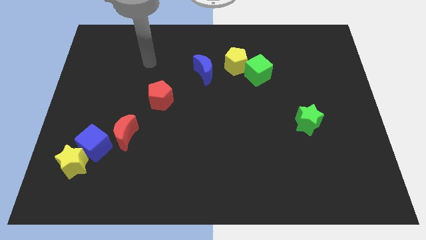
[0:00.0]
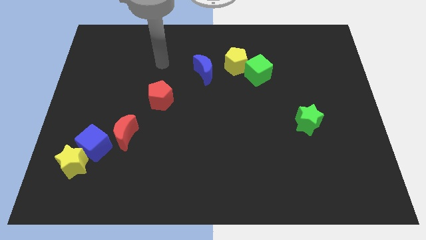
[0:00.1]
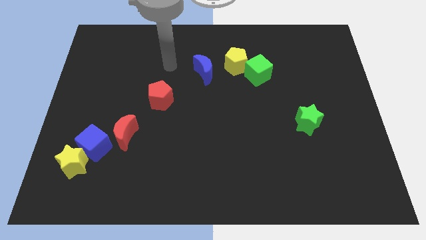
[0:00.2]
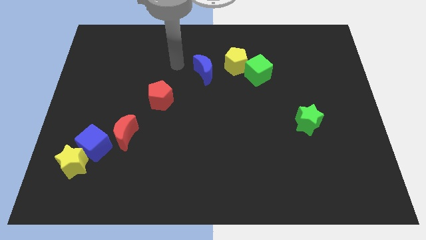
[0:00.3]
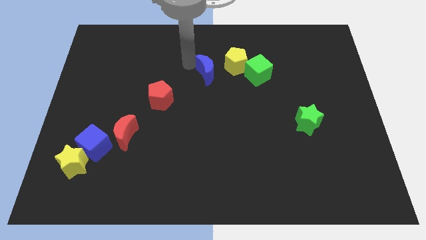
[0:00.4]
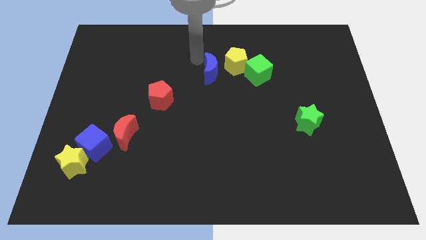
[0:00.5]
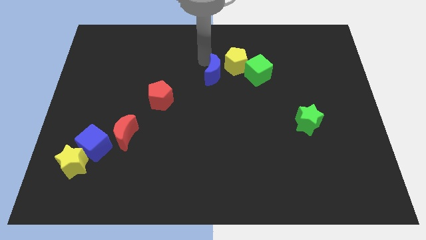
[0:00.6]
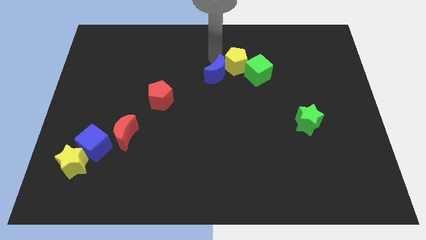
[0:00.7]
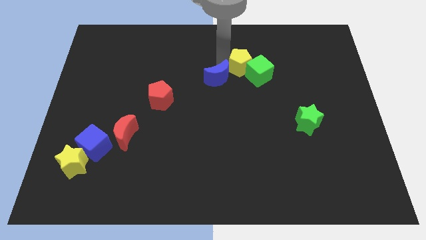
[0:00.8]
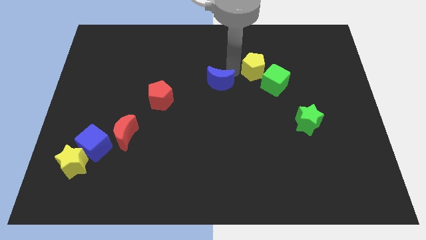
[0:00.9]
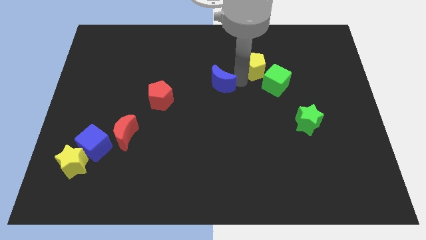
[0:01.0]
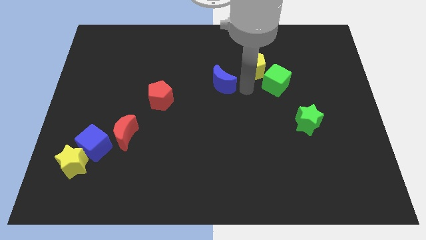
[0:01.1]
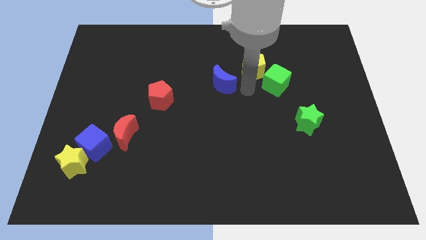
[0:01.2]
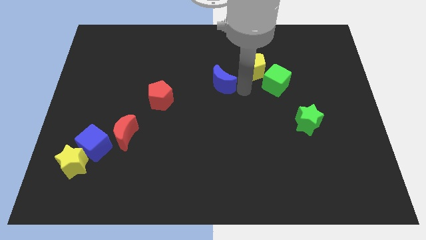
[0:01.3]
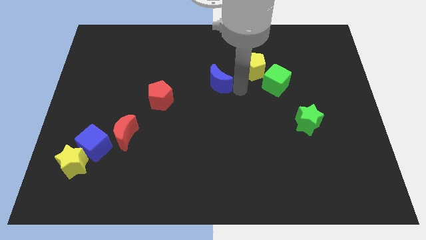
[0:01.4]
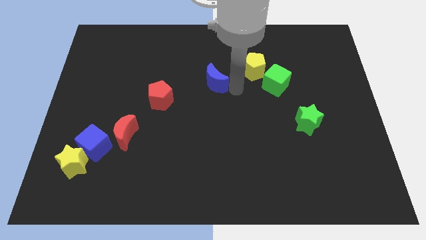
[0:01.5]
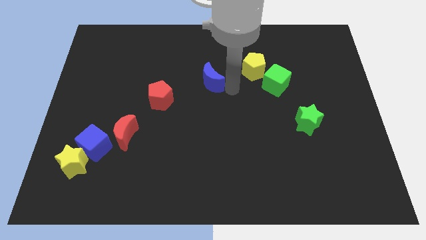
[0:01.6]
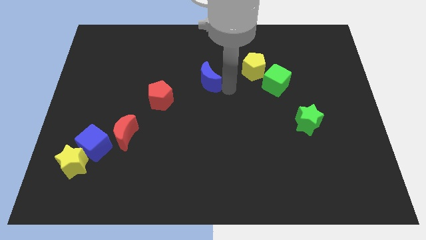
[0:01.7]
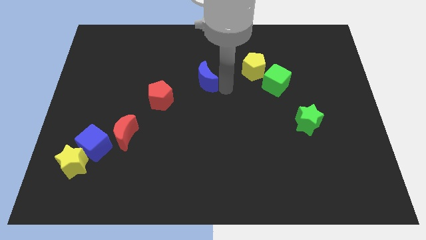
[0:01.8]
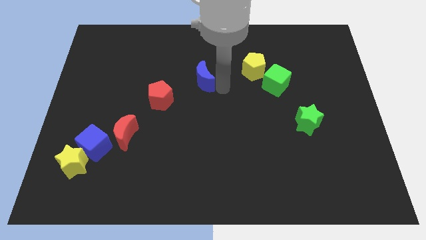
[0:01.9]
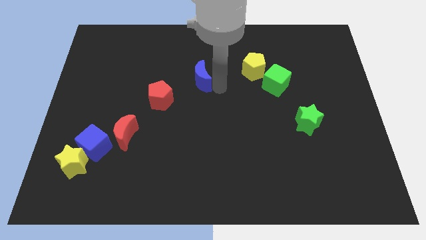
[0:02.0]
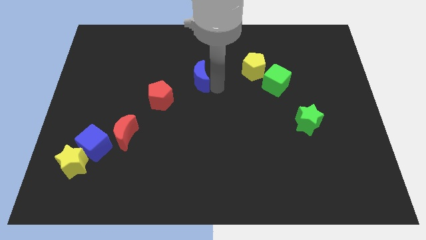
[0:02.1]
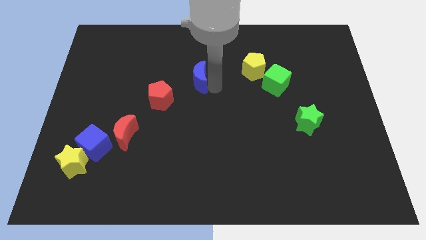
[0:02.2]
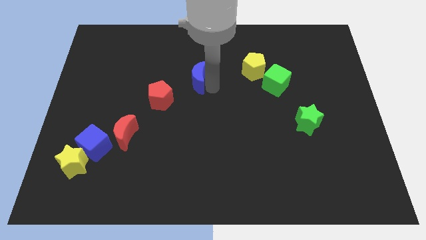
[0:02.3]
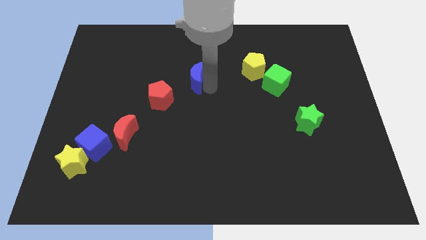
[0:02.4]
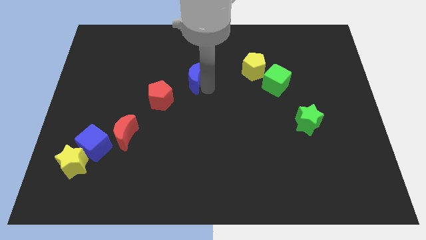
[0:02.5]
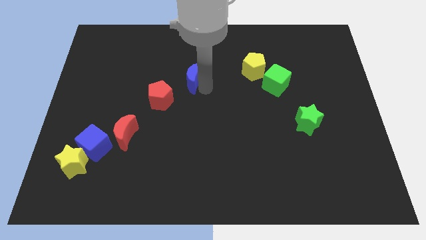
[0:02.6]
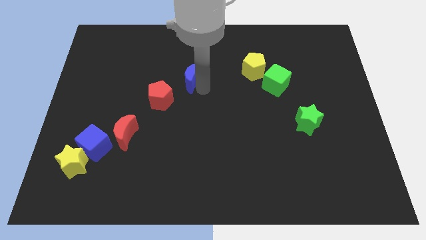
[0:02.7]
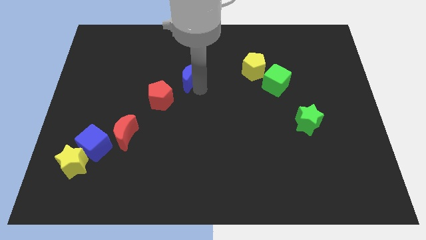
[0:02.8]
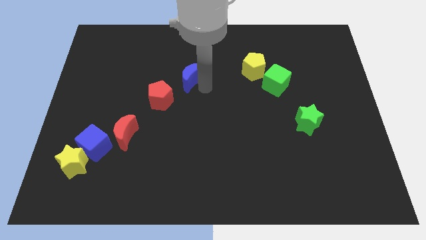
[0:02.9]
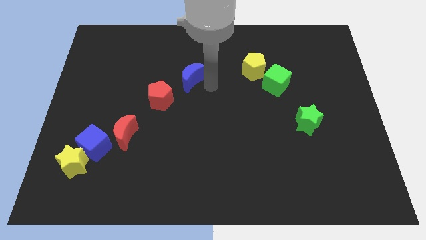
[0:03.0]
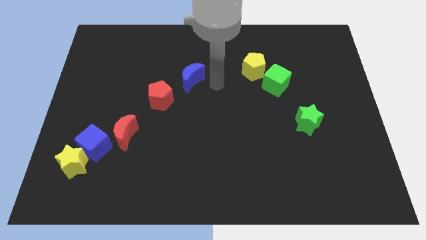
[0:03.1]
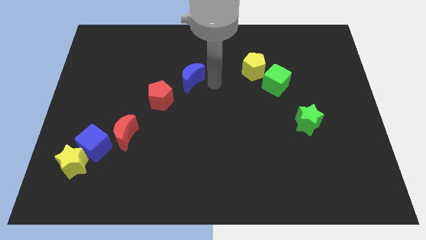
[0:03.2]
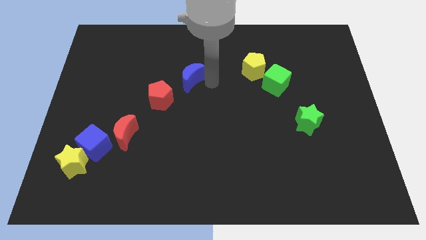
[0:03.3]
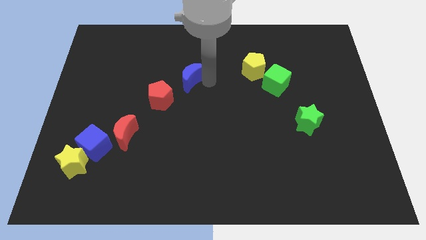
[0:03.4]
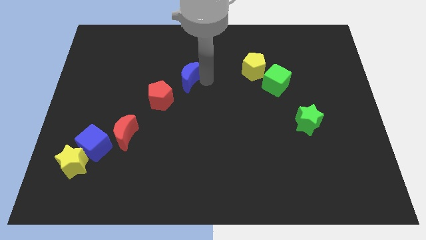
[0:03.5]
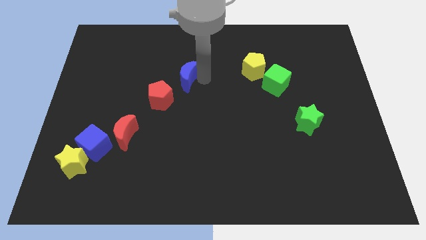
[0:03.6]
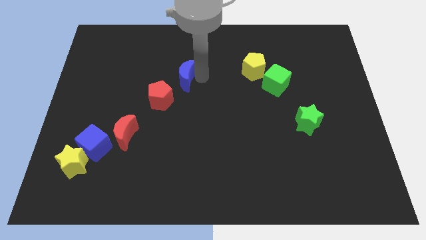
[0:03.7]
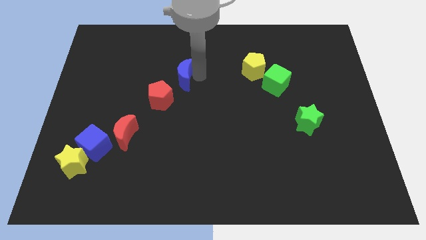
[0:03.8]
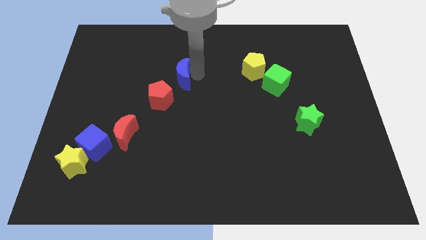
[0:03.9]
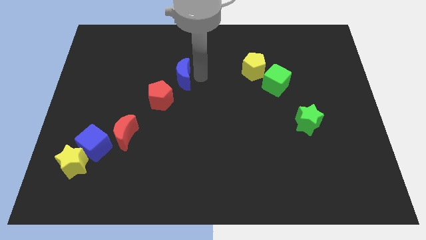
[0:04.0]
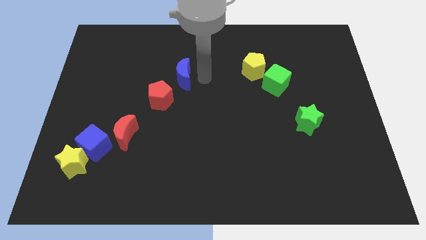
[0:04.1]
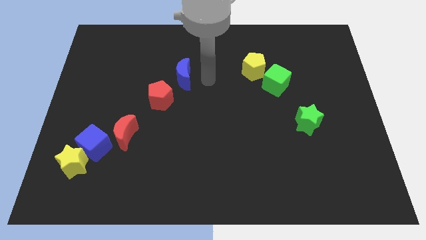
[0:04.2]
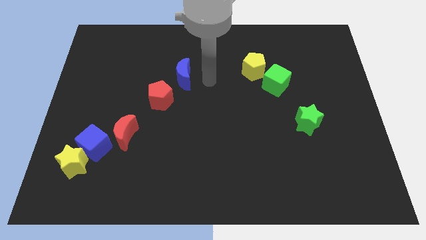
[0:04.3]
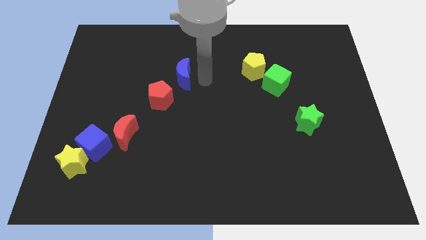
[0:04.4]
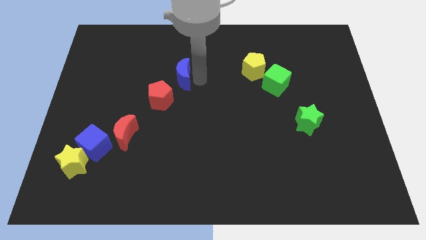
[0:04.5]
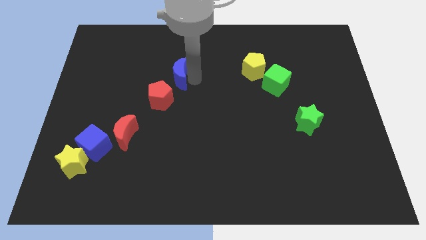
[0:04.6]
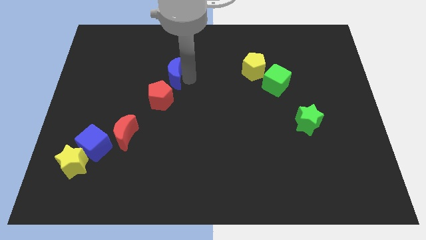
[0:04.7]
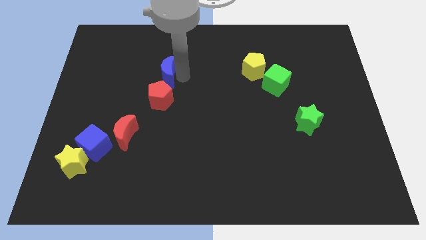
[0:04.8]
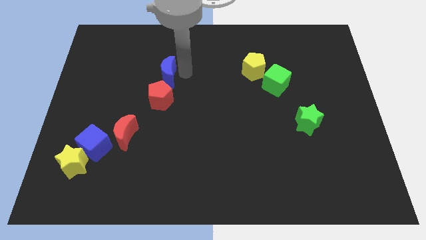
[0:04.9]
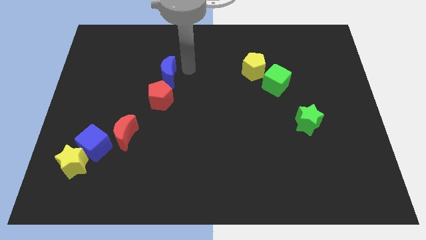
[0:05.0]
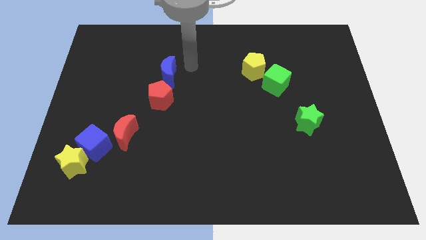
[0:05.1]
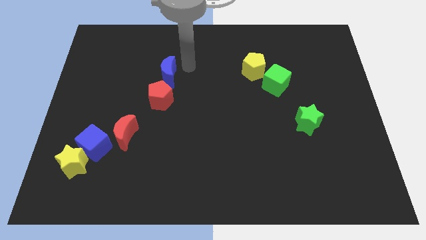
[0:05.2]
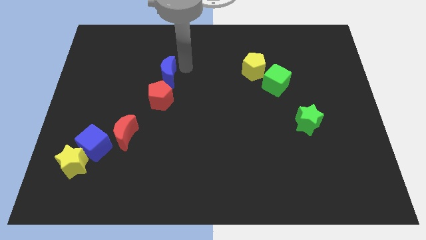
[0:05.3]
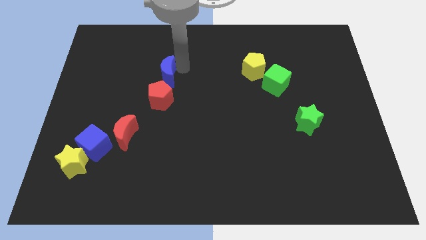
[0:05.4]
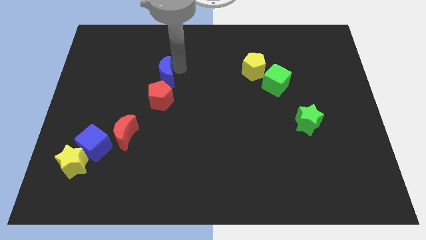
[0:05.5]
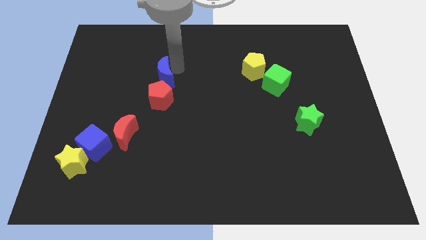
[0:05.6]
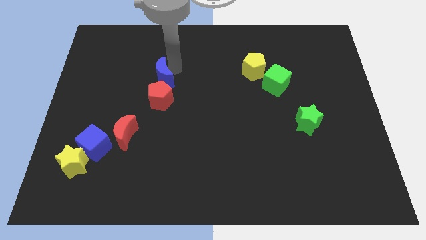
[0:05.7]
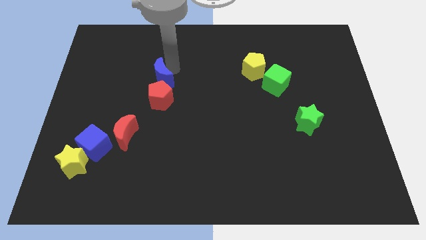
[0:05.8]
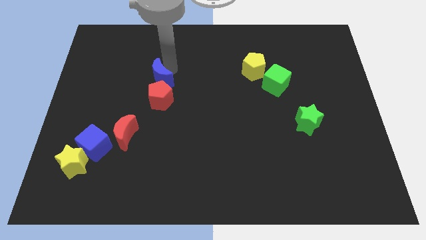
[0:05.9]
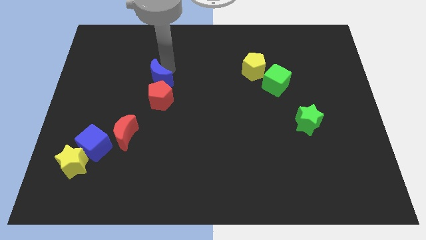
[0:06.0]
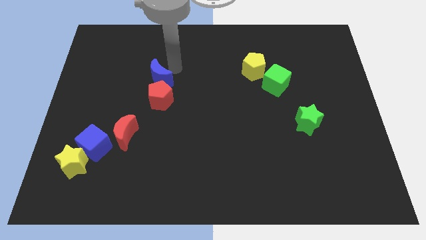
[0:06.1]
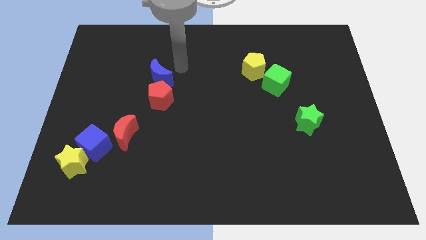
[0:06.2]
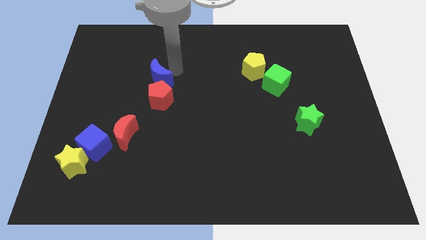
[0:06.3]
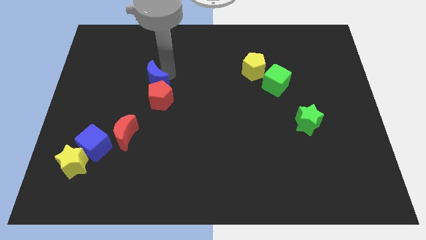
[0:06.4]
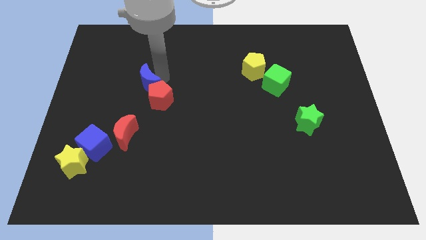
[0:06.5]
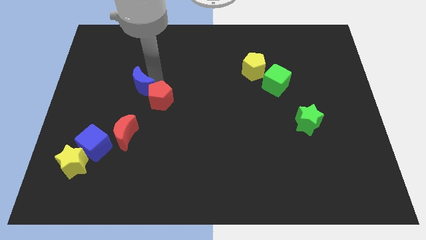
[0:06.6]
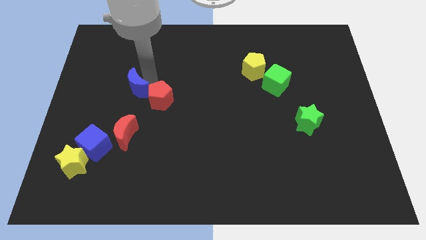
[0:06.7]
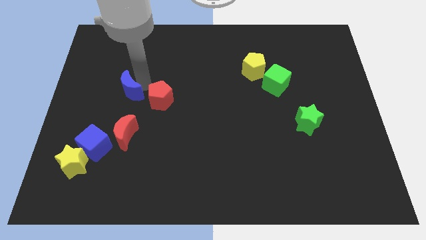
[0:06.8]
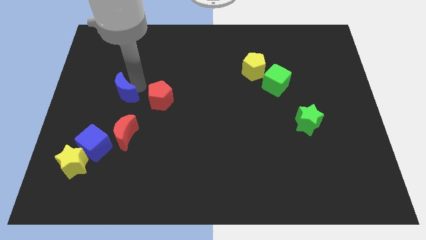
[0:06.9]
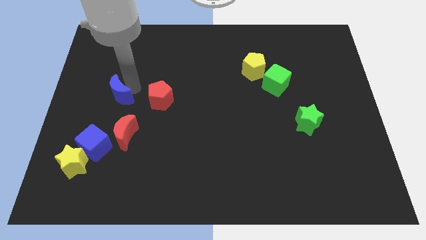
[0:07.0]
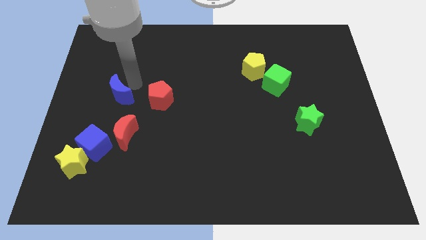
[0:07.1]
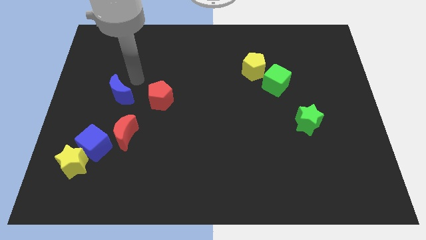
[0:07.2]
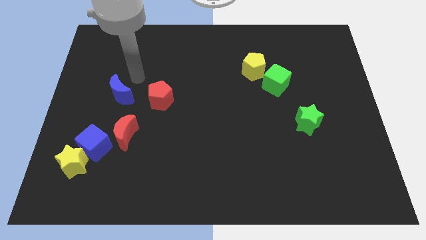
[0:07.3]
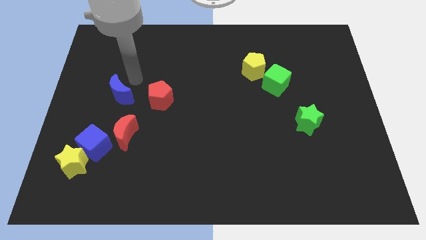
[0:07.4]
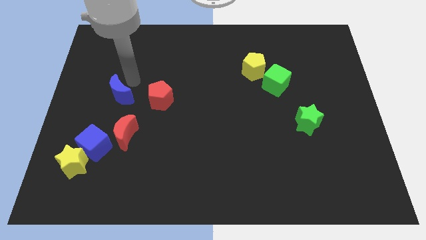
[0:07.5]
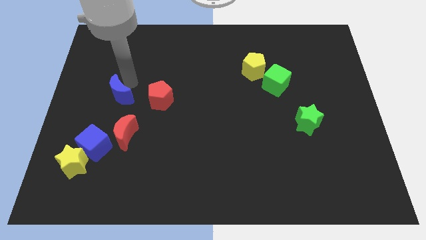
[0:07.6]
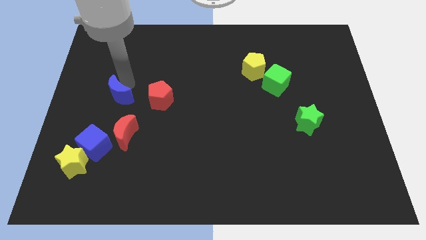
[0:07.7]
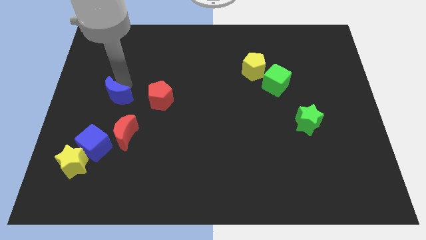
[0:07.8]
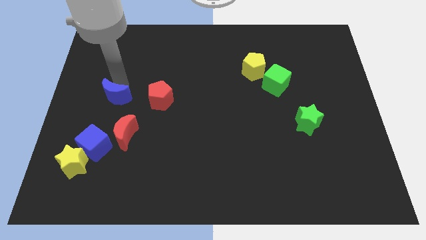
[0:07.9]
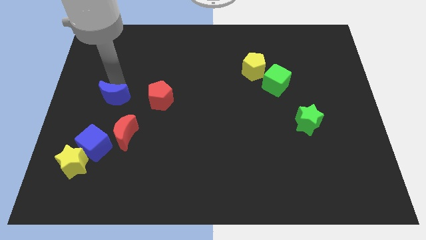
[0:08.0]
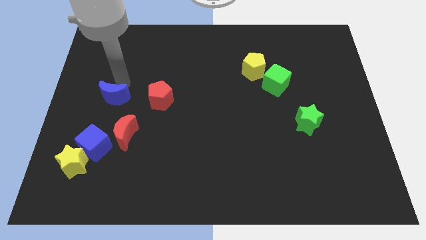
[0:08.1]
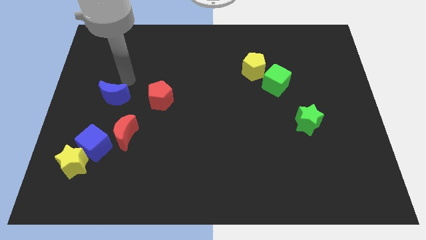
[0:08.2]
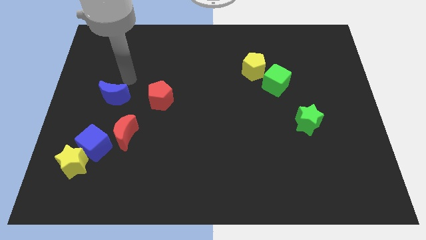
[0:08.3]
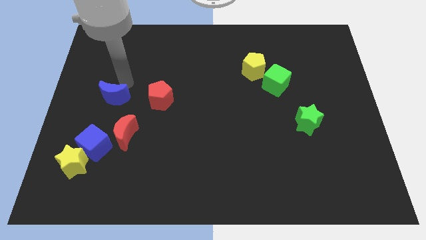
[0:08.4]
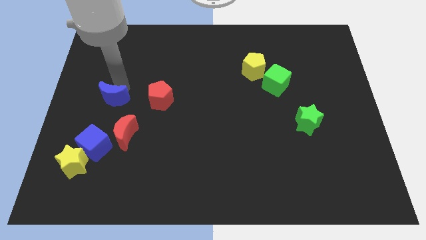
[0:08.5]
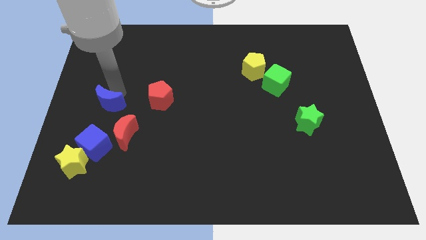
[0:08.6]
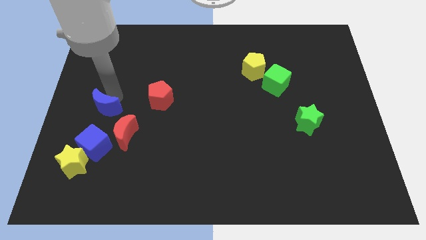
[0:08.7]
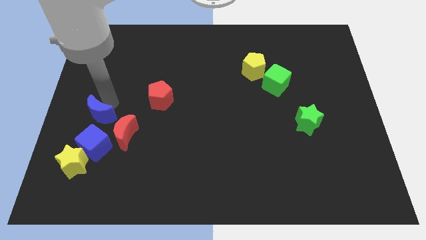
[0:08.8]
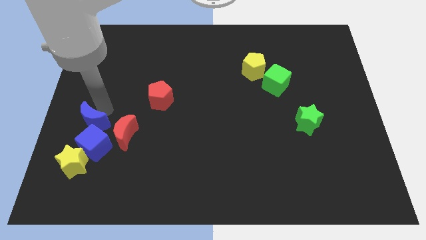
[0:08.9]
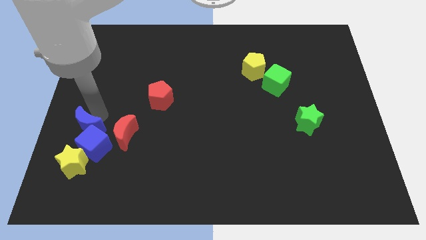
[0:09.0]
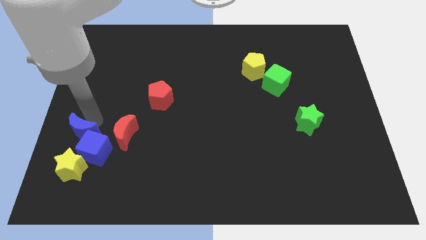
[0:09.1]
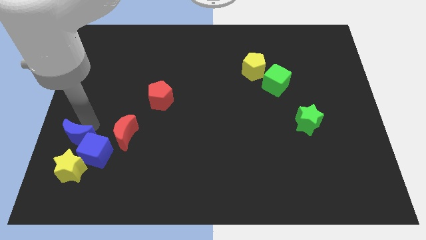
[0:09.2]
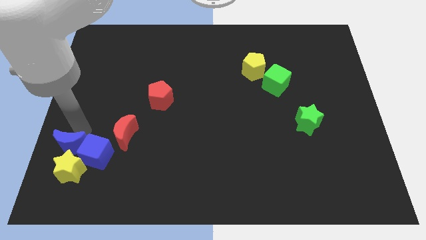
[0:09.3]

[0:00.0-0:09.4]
put the blue moon to the yellow star
